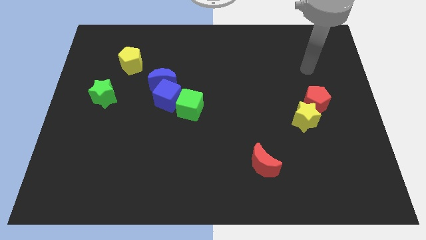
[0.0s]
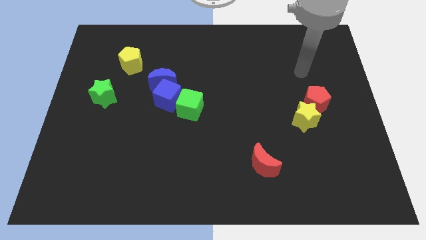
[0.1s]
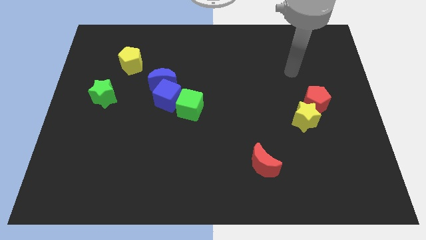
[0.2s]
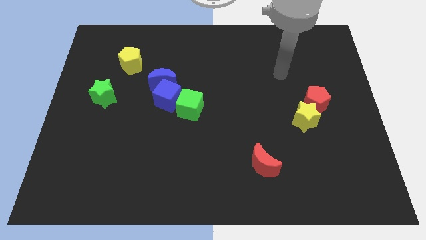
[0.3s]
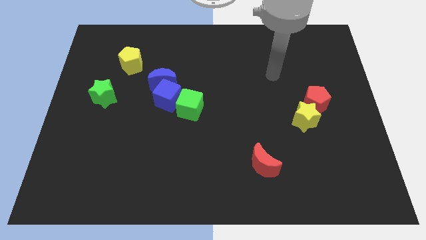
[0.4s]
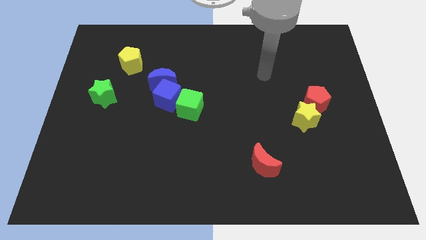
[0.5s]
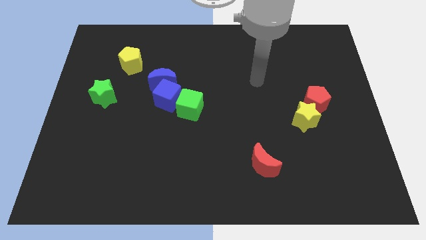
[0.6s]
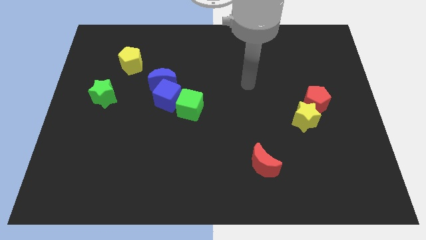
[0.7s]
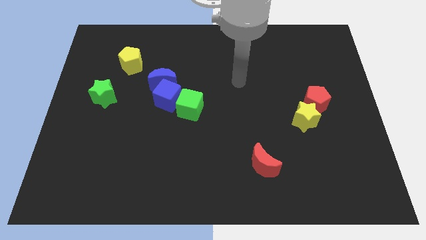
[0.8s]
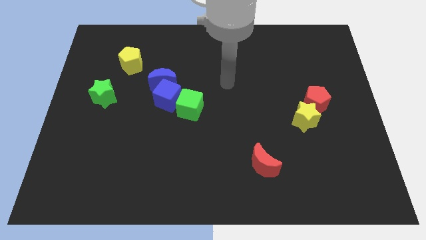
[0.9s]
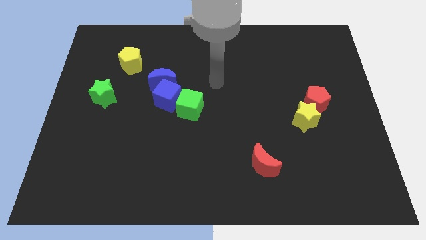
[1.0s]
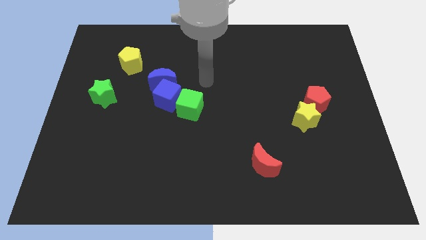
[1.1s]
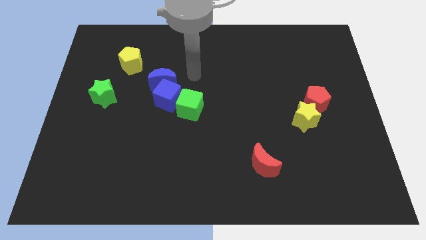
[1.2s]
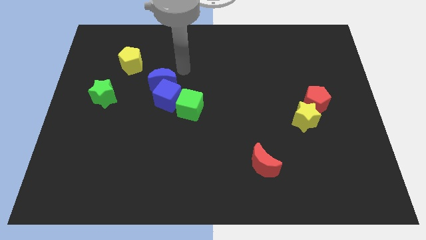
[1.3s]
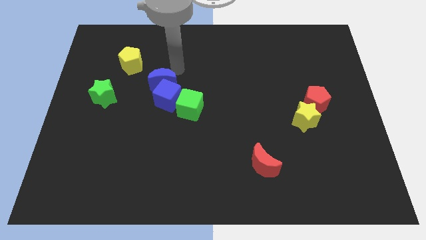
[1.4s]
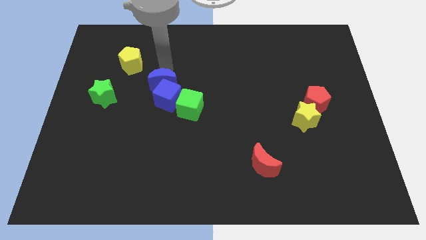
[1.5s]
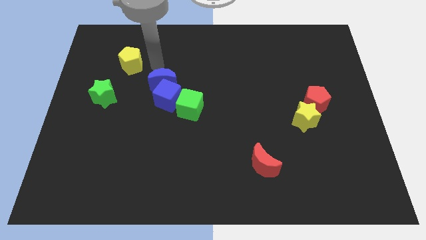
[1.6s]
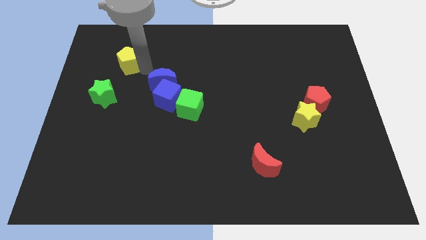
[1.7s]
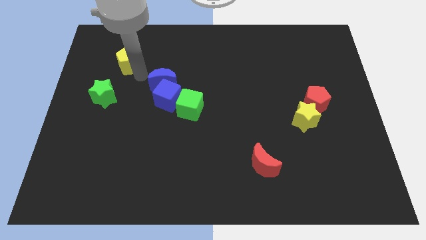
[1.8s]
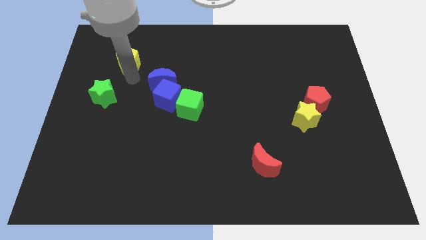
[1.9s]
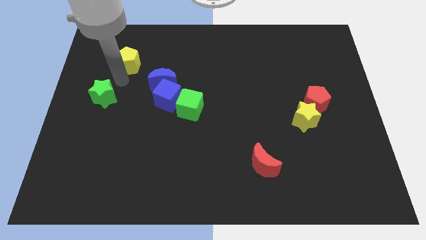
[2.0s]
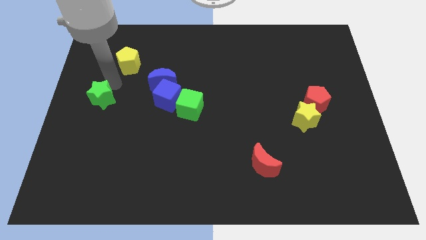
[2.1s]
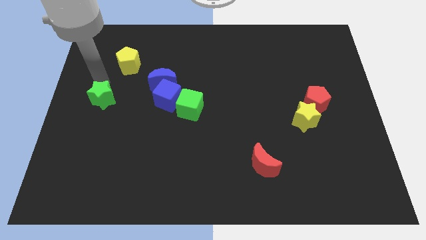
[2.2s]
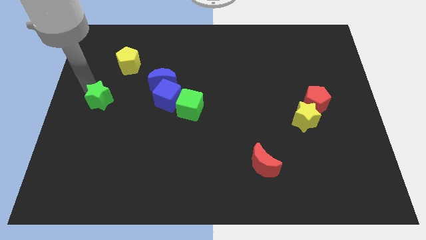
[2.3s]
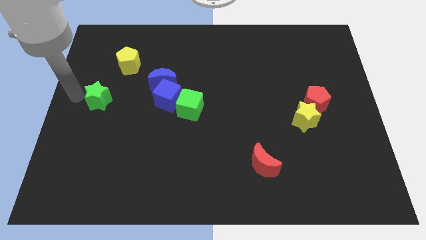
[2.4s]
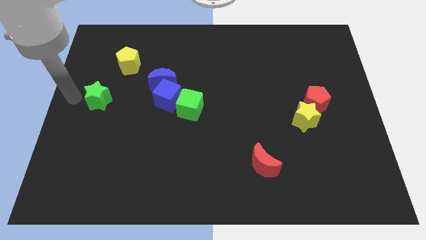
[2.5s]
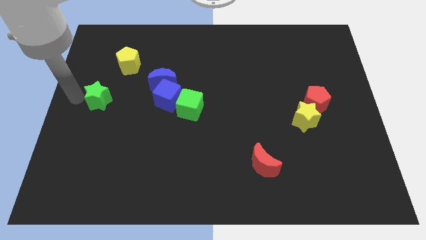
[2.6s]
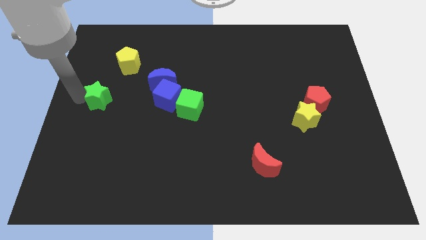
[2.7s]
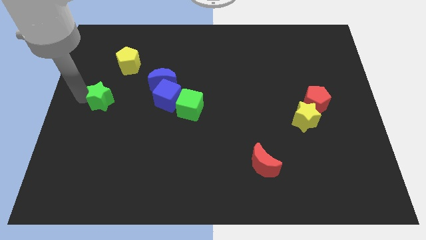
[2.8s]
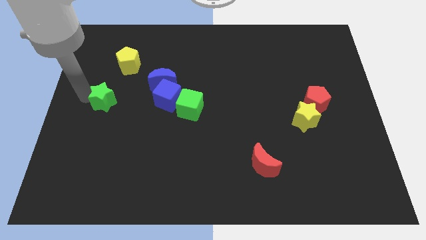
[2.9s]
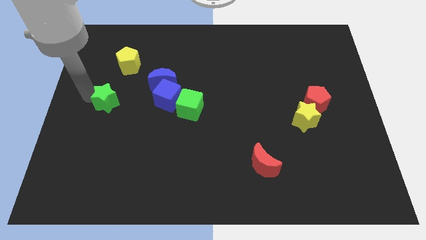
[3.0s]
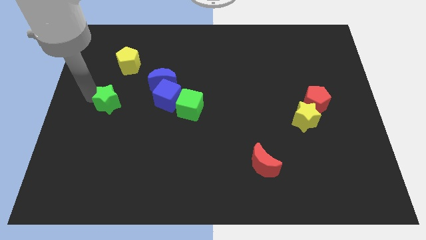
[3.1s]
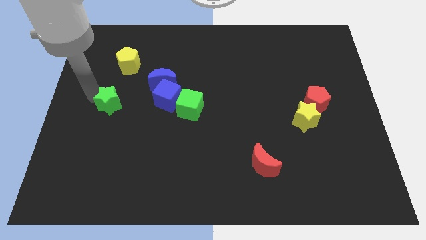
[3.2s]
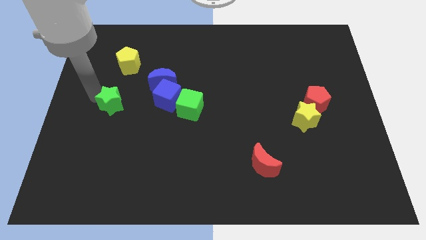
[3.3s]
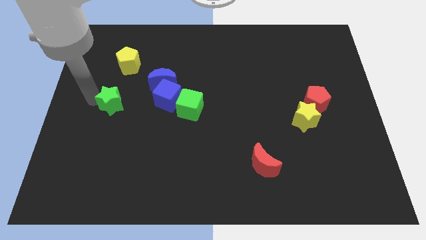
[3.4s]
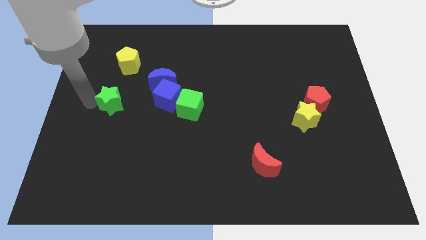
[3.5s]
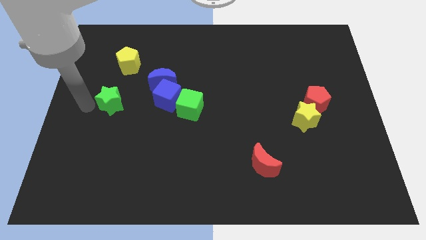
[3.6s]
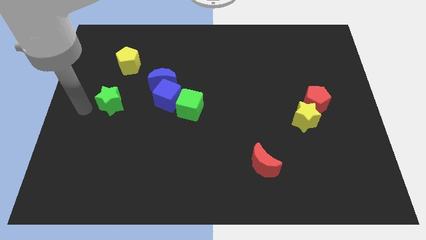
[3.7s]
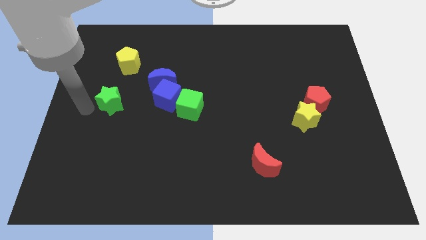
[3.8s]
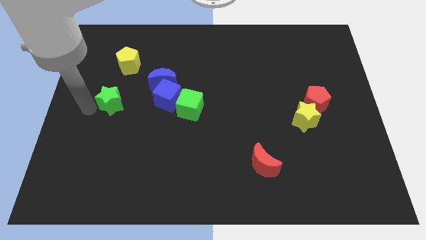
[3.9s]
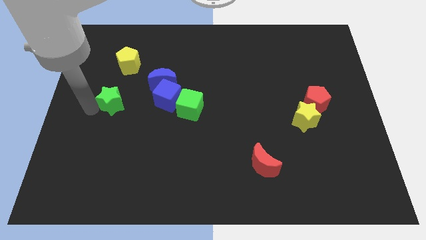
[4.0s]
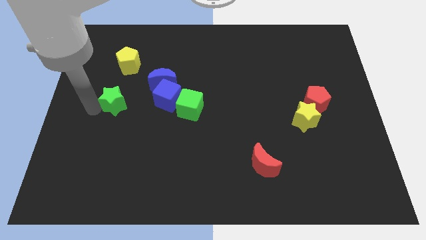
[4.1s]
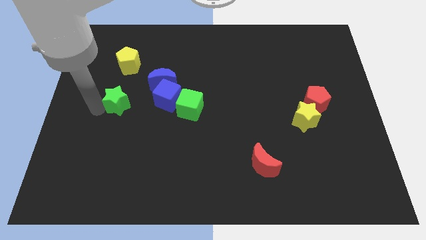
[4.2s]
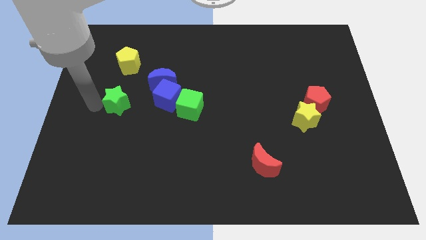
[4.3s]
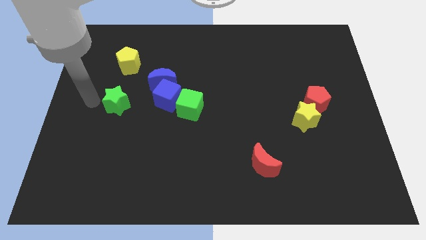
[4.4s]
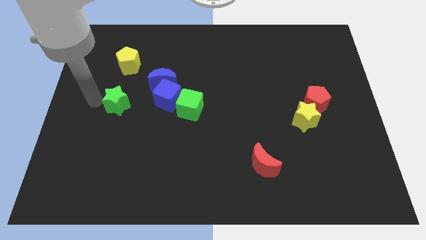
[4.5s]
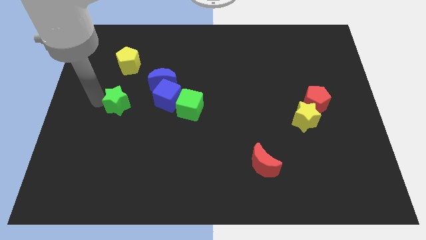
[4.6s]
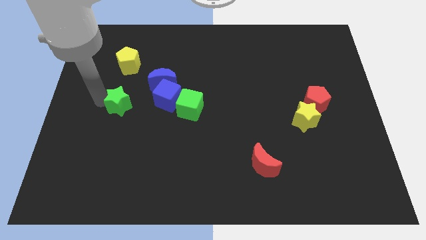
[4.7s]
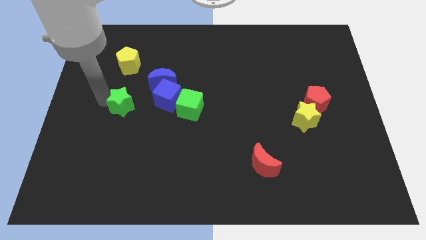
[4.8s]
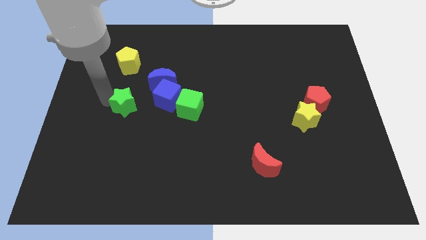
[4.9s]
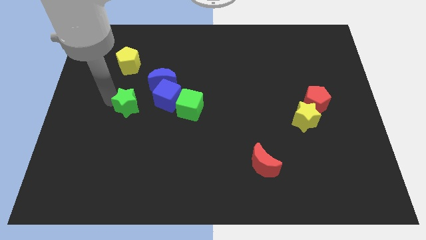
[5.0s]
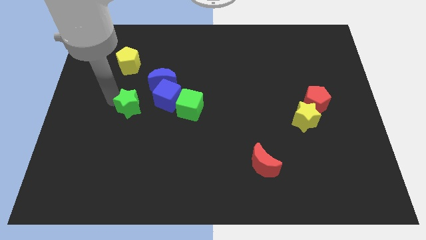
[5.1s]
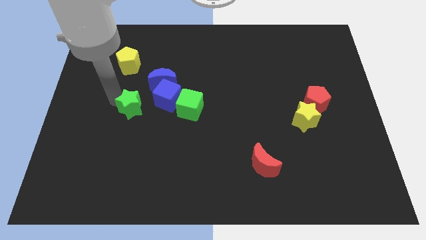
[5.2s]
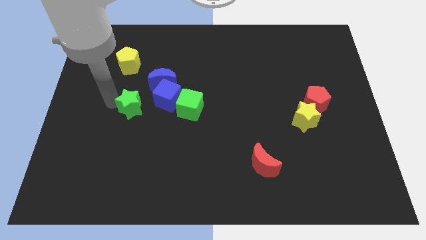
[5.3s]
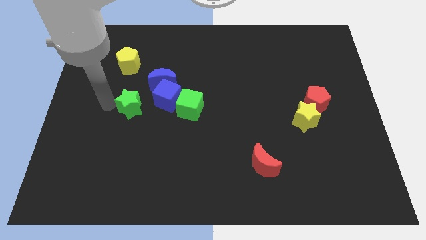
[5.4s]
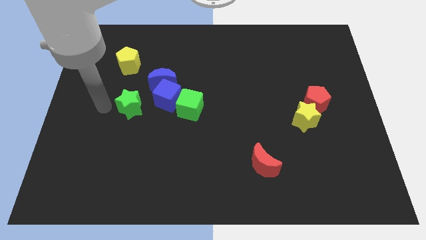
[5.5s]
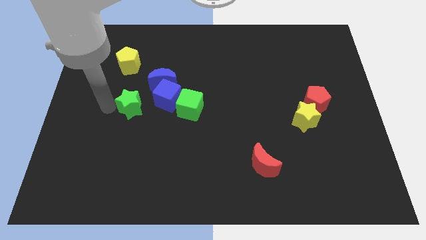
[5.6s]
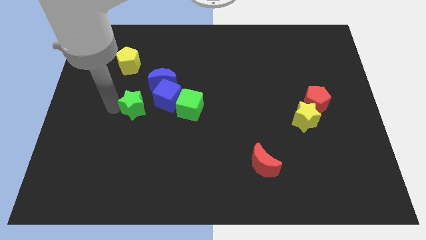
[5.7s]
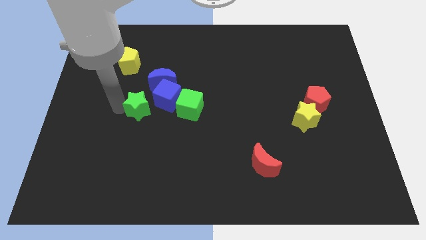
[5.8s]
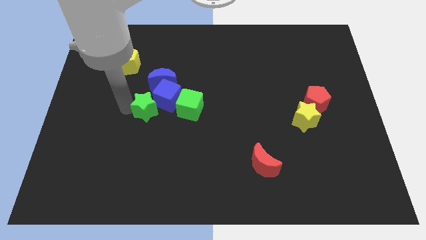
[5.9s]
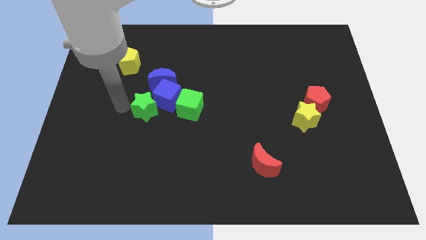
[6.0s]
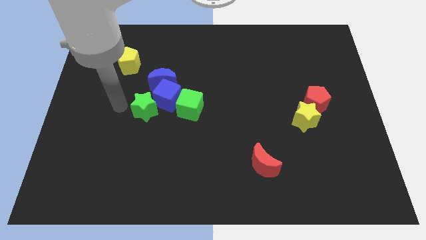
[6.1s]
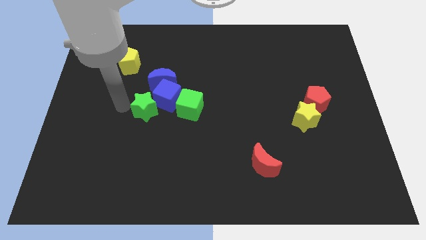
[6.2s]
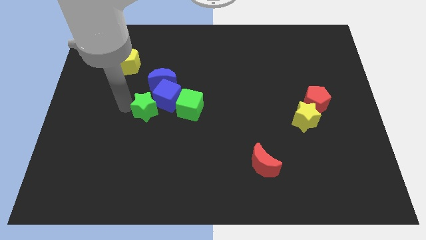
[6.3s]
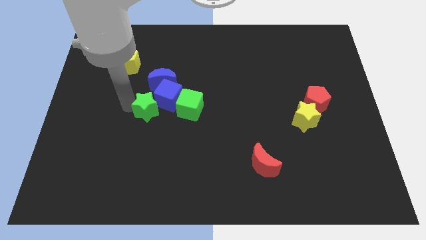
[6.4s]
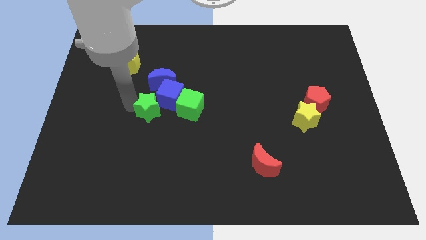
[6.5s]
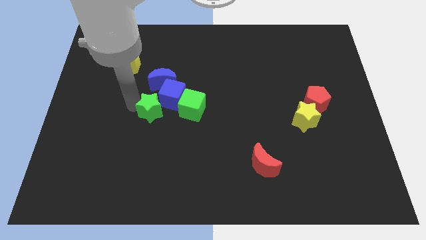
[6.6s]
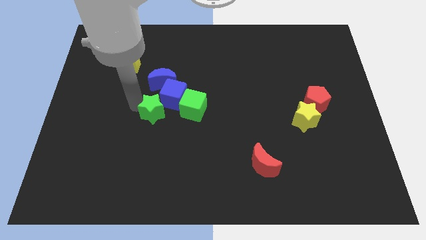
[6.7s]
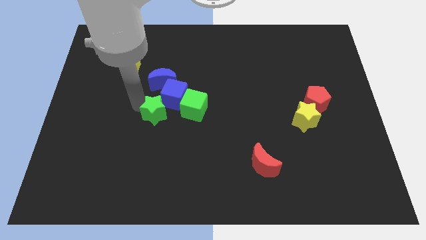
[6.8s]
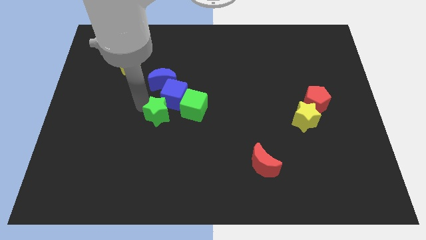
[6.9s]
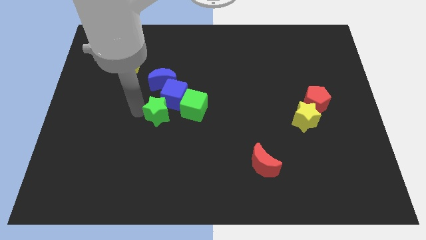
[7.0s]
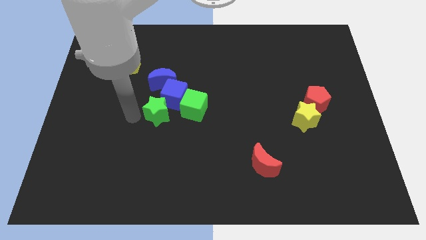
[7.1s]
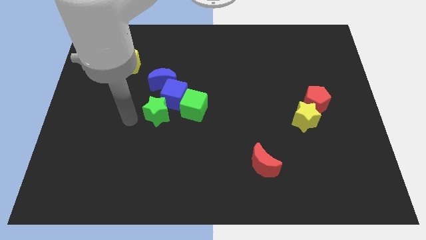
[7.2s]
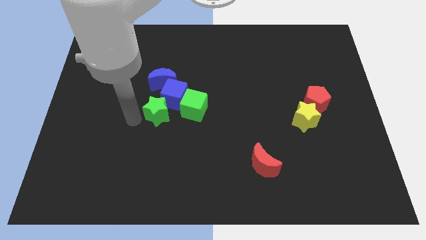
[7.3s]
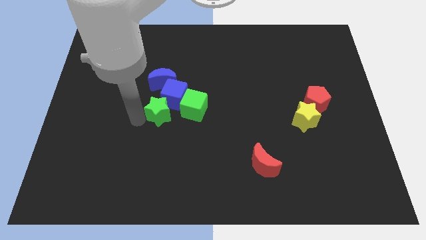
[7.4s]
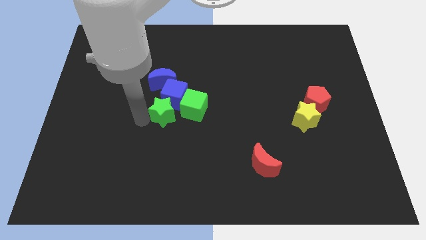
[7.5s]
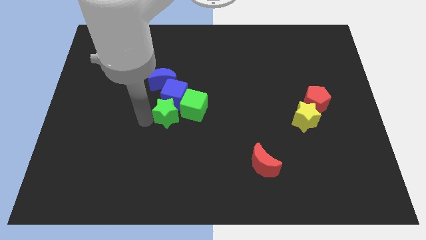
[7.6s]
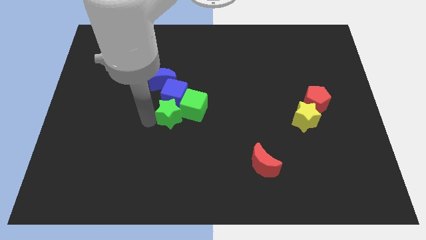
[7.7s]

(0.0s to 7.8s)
slide the green star close to the green cube
